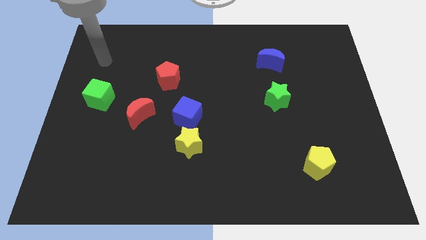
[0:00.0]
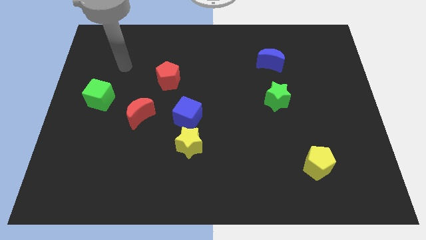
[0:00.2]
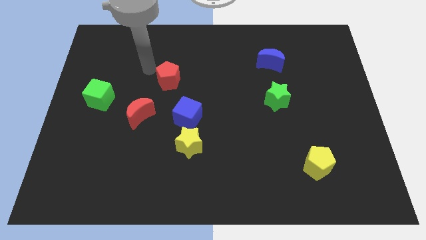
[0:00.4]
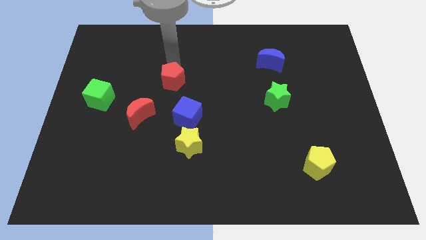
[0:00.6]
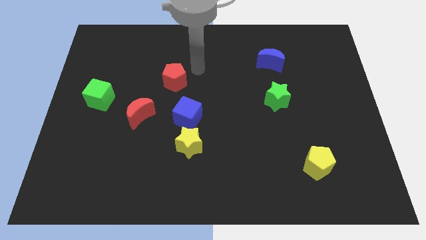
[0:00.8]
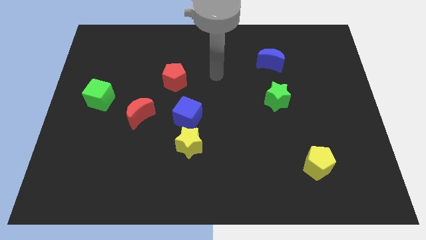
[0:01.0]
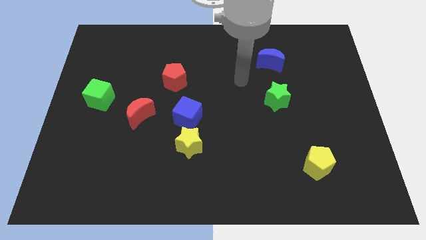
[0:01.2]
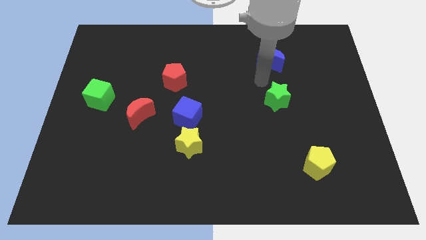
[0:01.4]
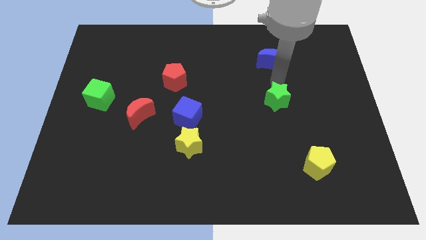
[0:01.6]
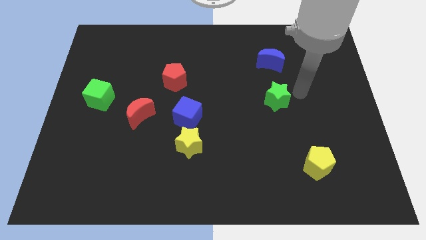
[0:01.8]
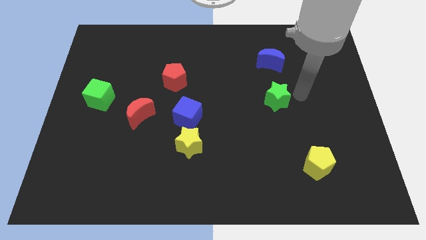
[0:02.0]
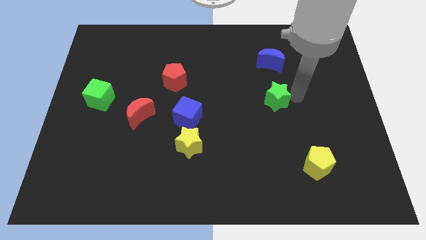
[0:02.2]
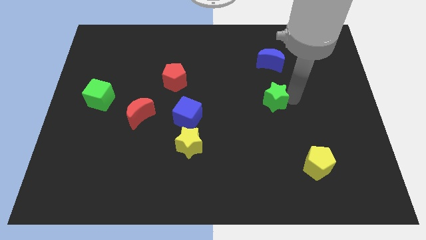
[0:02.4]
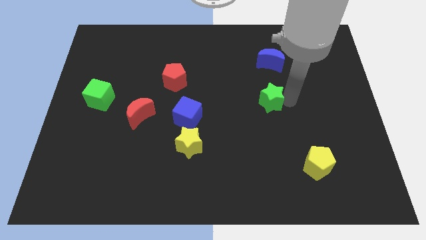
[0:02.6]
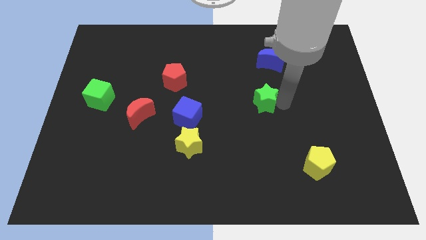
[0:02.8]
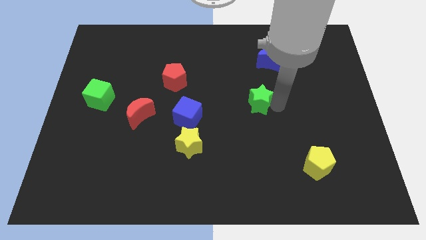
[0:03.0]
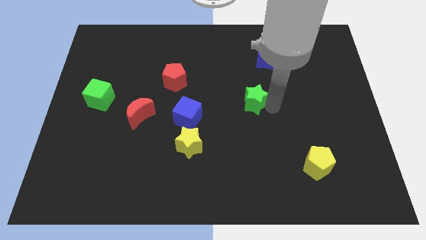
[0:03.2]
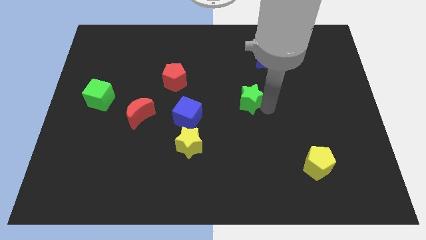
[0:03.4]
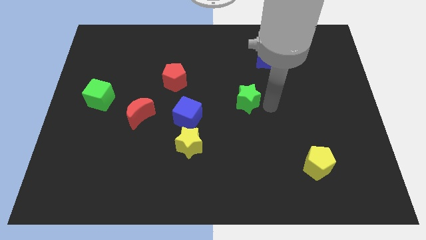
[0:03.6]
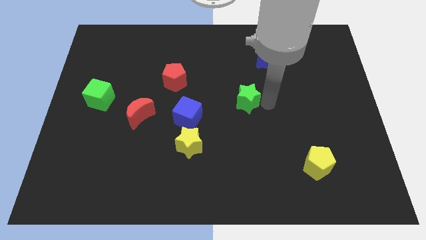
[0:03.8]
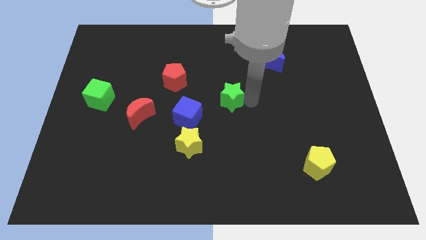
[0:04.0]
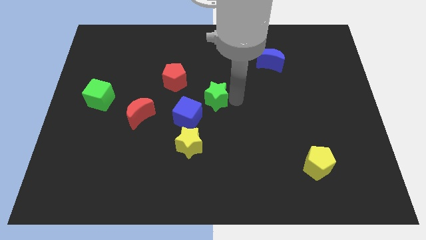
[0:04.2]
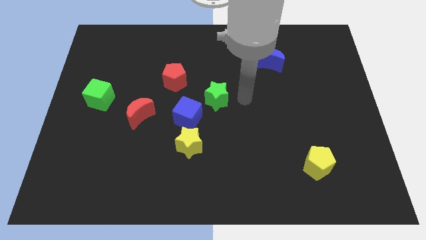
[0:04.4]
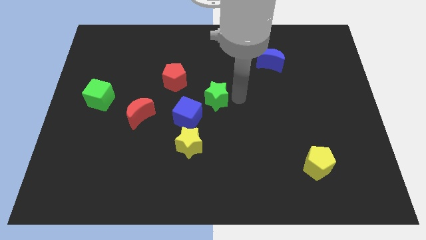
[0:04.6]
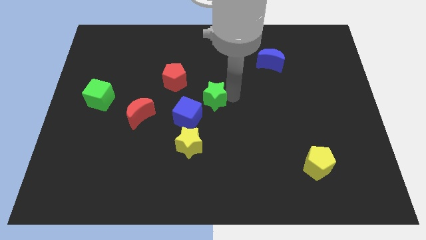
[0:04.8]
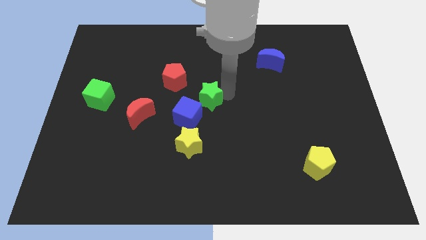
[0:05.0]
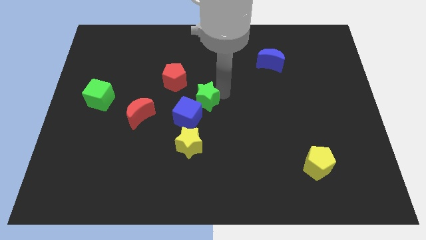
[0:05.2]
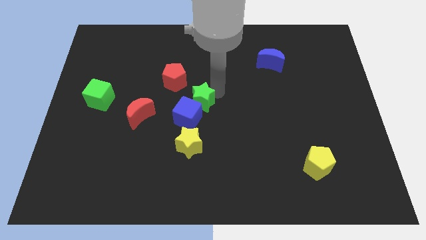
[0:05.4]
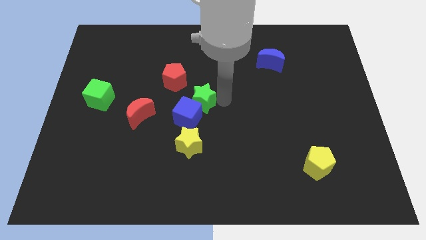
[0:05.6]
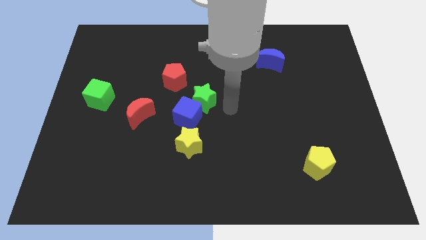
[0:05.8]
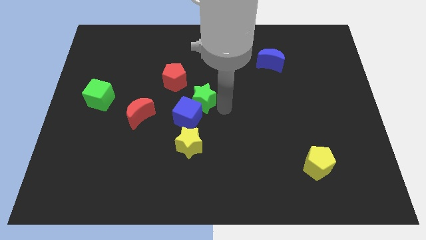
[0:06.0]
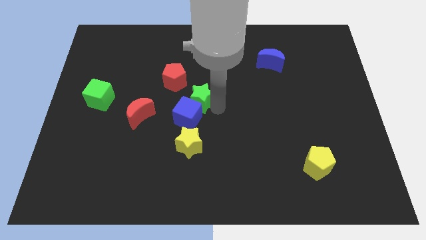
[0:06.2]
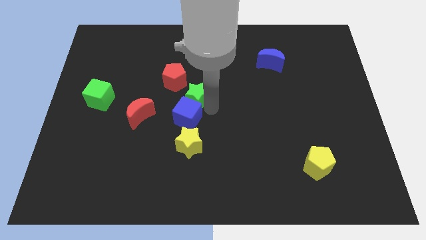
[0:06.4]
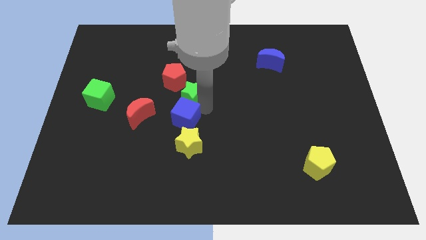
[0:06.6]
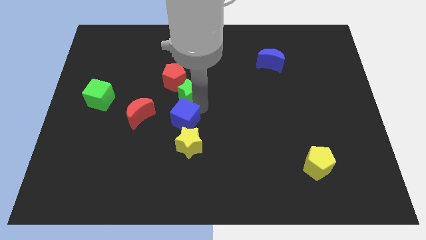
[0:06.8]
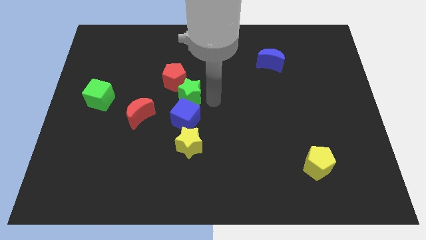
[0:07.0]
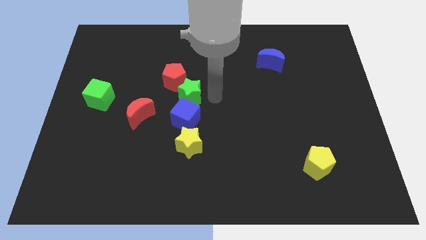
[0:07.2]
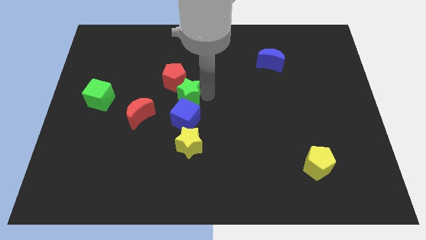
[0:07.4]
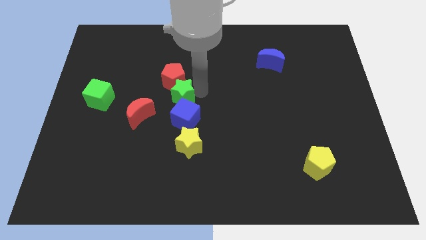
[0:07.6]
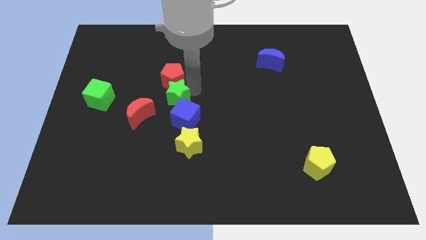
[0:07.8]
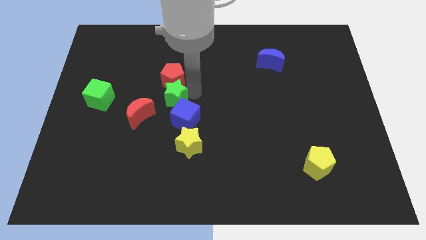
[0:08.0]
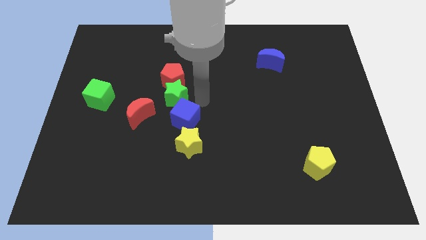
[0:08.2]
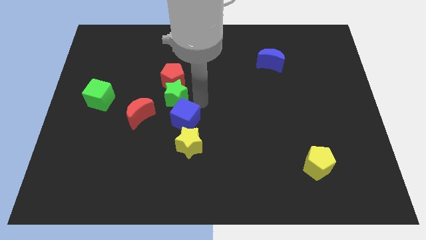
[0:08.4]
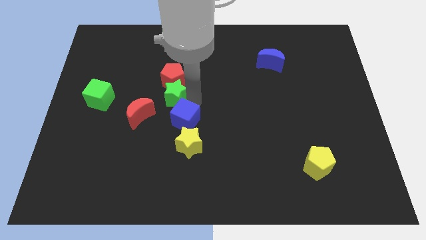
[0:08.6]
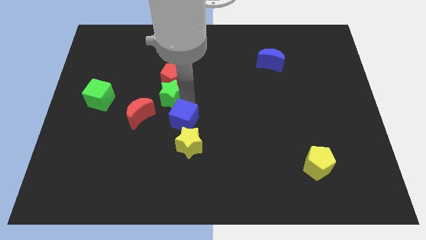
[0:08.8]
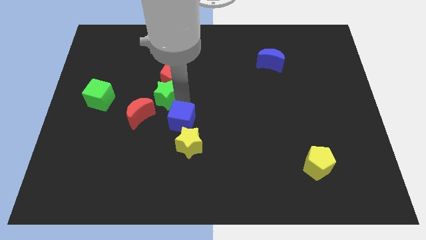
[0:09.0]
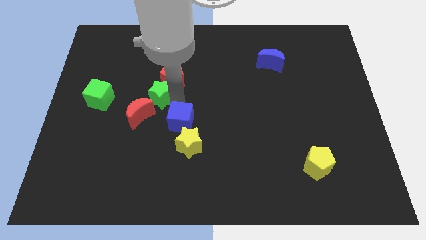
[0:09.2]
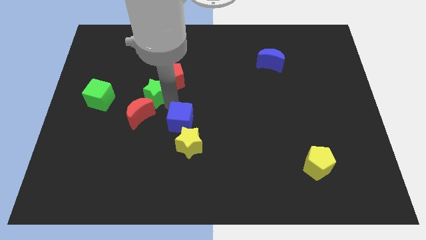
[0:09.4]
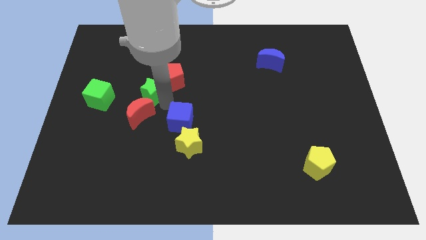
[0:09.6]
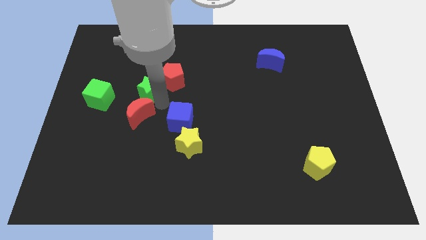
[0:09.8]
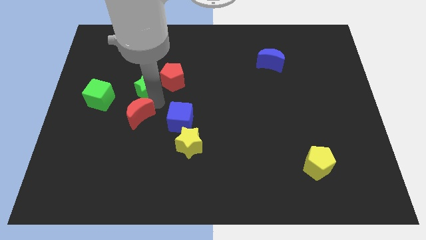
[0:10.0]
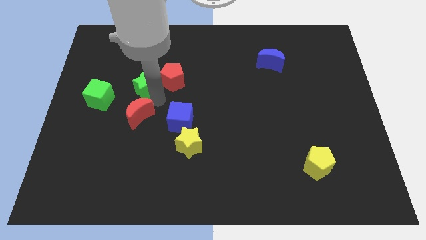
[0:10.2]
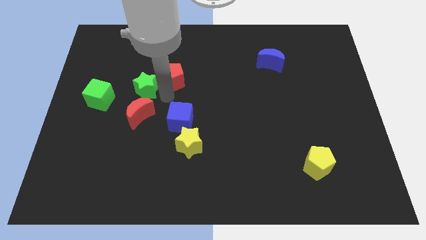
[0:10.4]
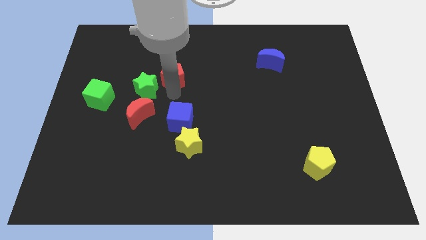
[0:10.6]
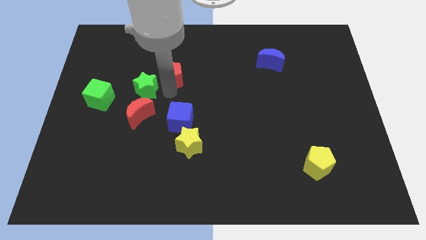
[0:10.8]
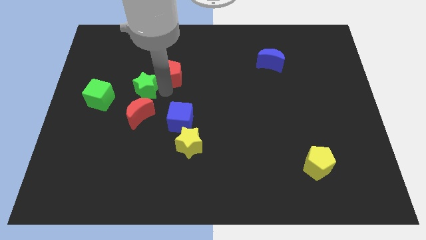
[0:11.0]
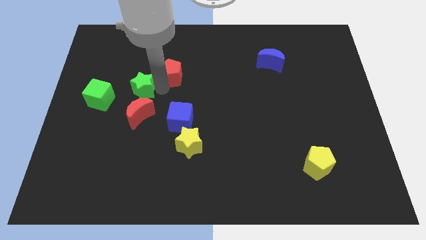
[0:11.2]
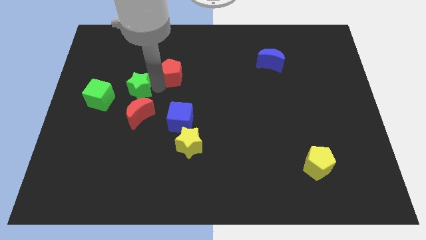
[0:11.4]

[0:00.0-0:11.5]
move the green star to the top left side of the red moon

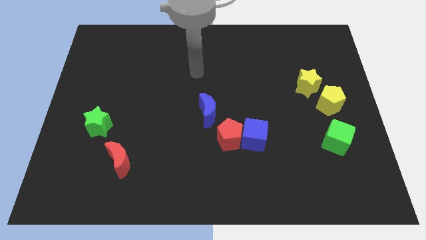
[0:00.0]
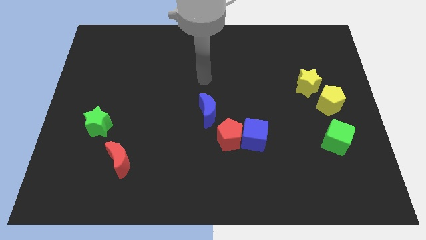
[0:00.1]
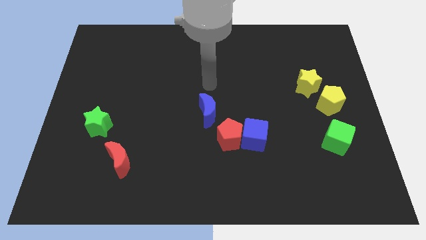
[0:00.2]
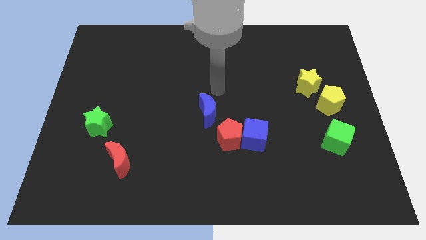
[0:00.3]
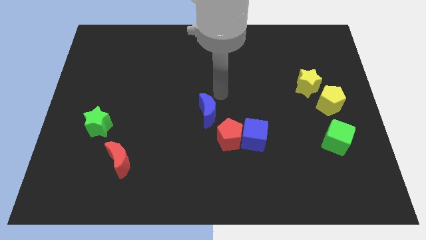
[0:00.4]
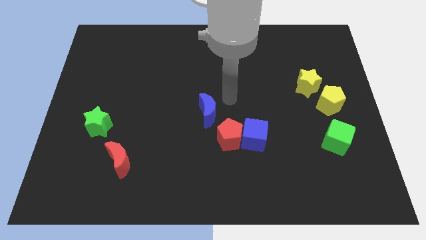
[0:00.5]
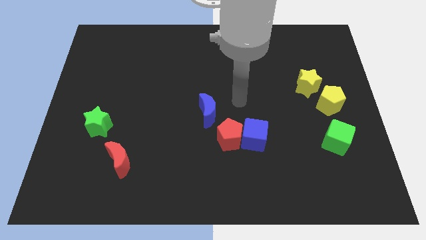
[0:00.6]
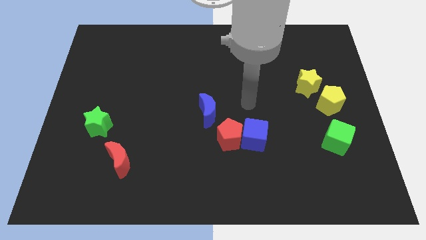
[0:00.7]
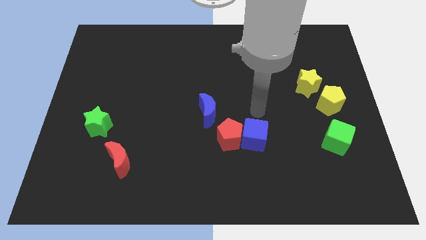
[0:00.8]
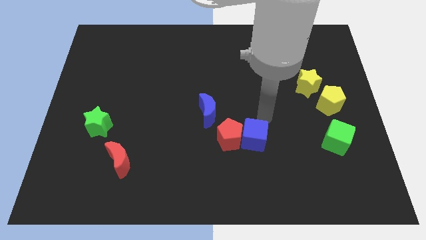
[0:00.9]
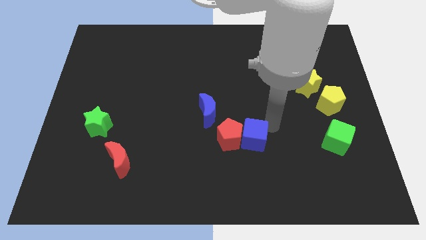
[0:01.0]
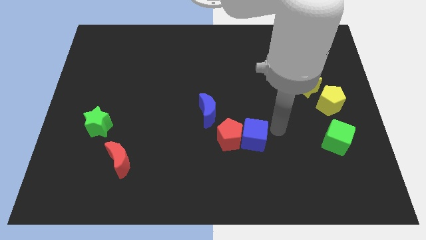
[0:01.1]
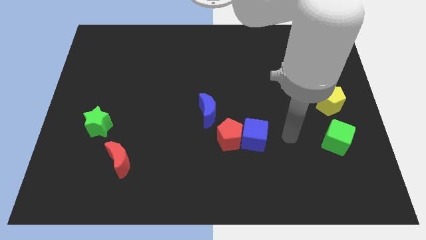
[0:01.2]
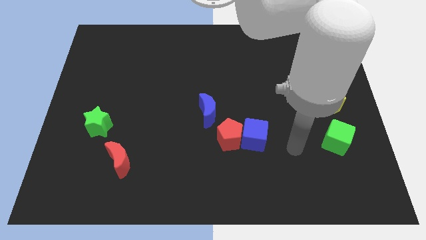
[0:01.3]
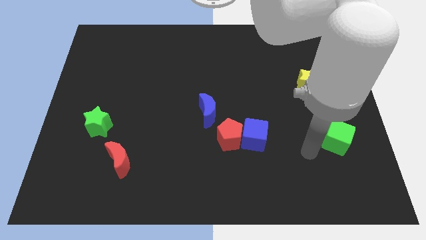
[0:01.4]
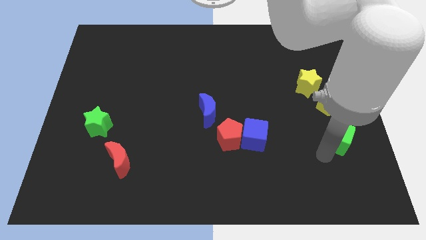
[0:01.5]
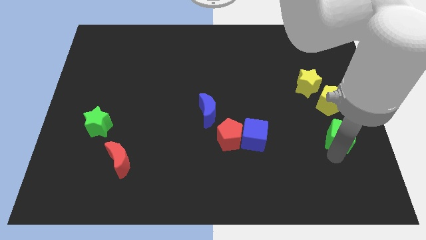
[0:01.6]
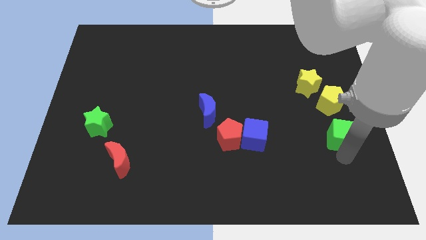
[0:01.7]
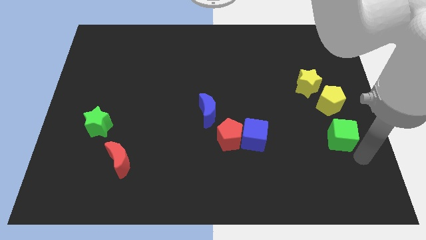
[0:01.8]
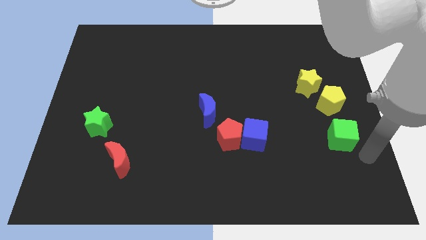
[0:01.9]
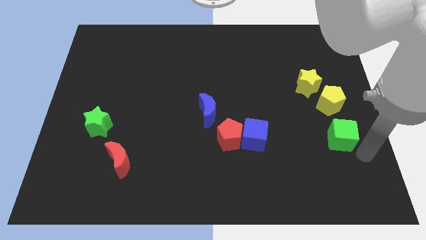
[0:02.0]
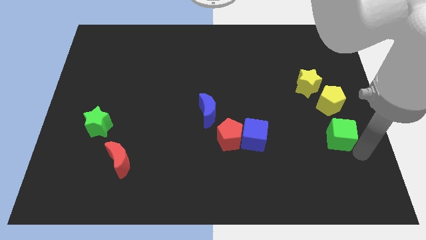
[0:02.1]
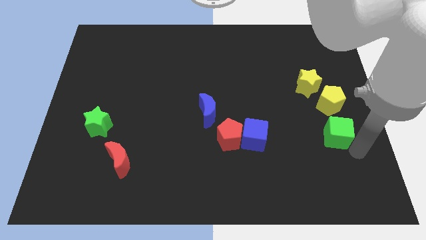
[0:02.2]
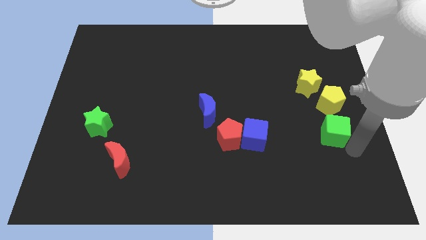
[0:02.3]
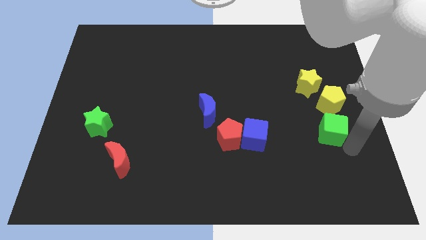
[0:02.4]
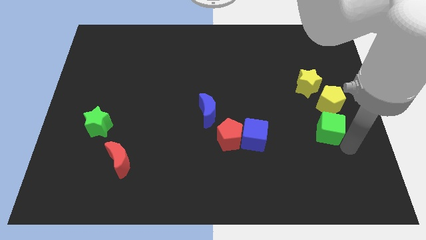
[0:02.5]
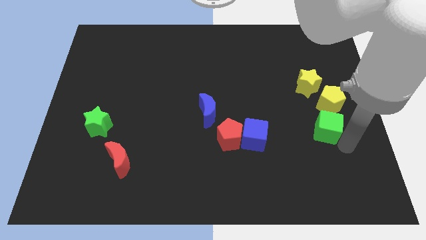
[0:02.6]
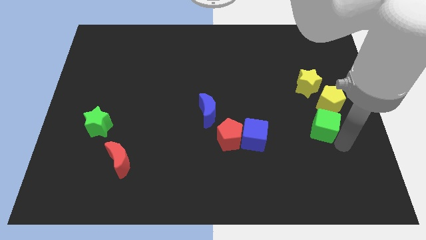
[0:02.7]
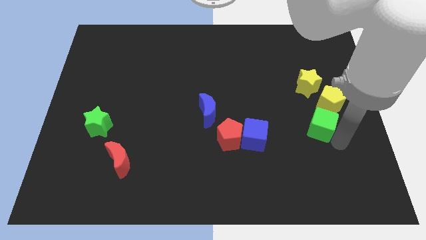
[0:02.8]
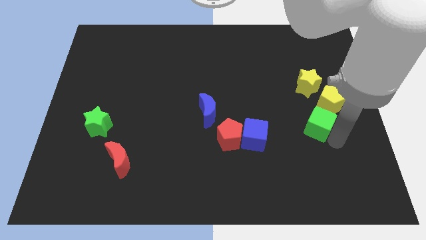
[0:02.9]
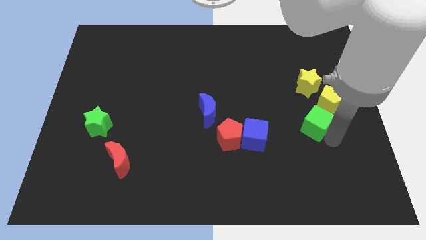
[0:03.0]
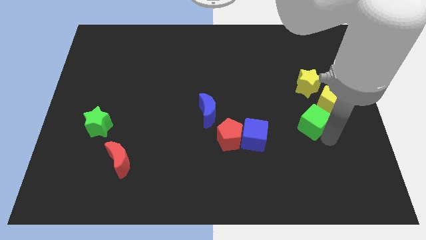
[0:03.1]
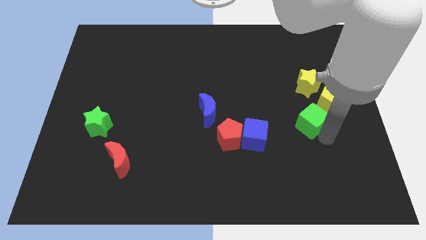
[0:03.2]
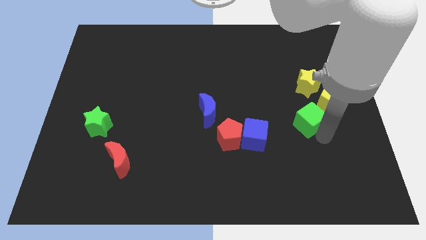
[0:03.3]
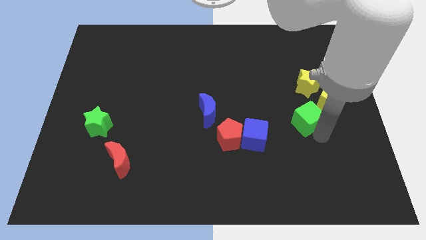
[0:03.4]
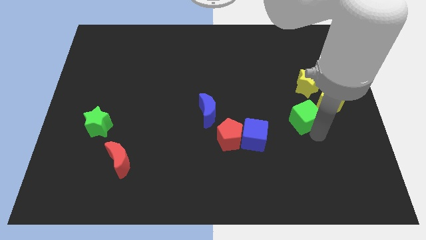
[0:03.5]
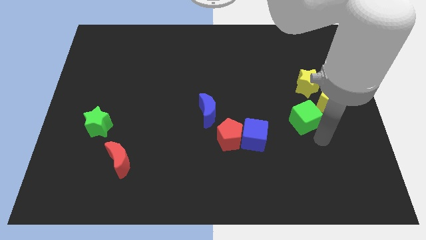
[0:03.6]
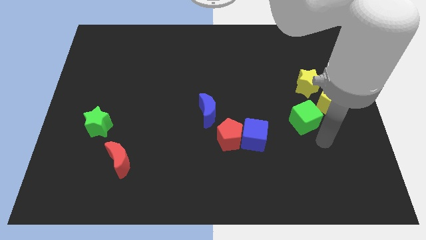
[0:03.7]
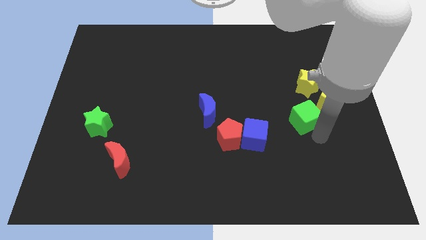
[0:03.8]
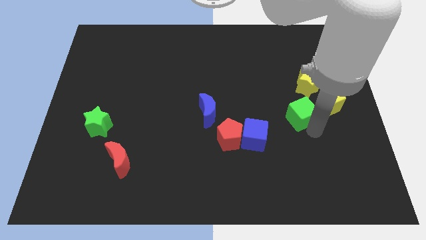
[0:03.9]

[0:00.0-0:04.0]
put the green cube to the bottom left of the yellow star
